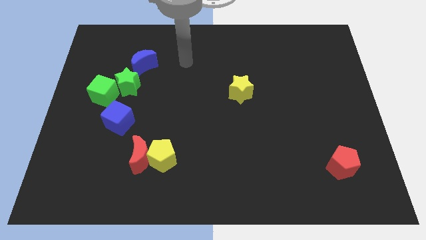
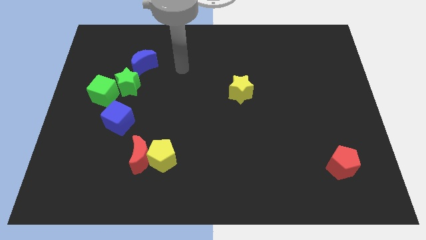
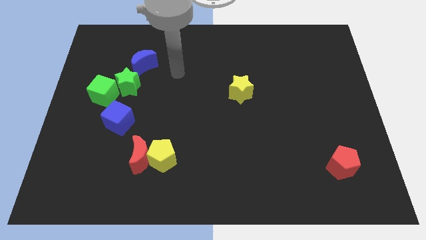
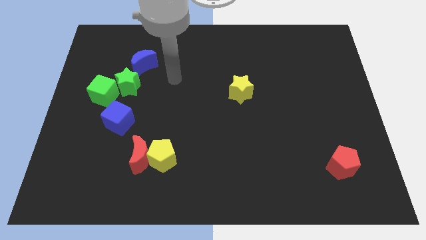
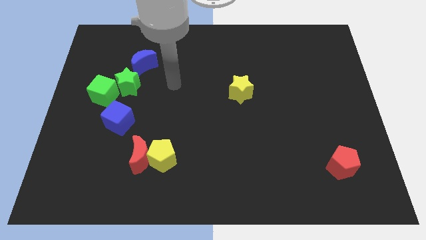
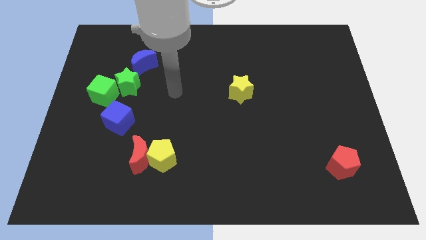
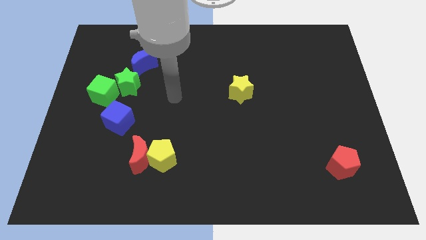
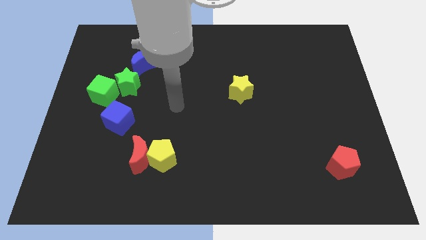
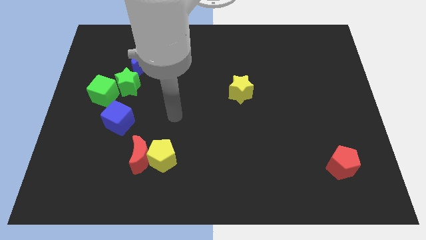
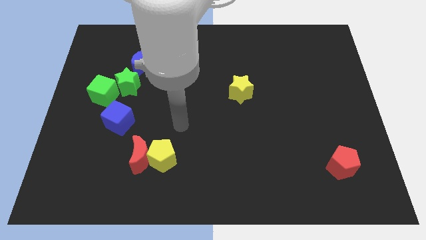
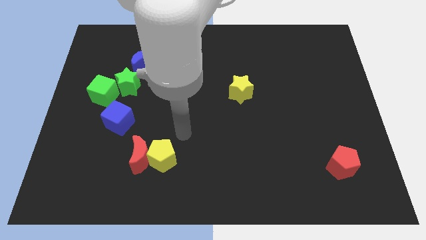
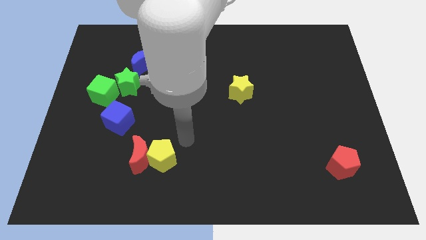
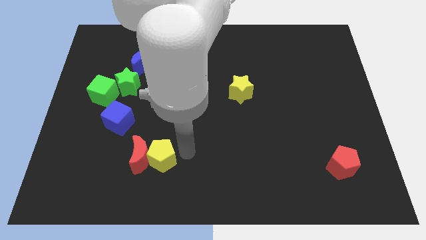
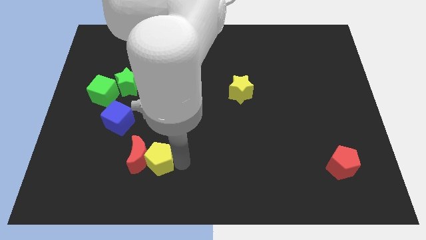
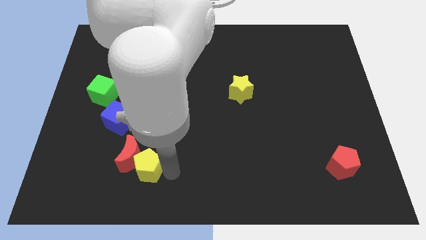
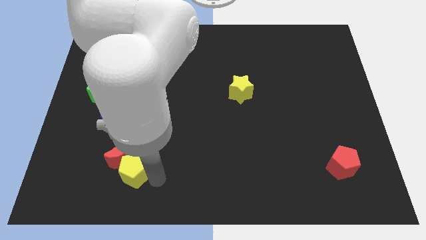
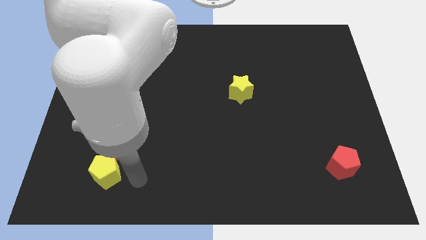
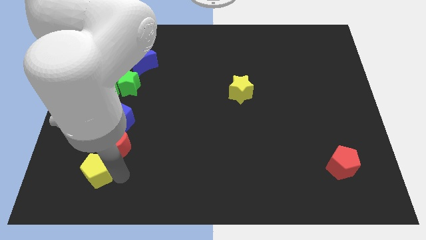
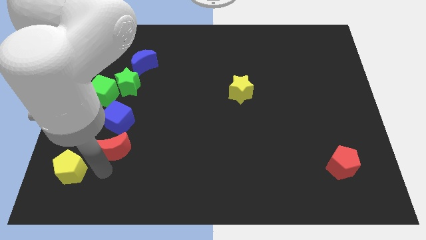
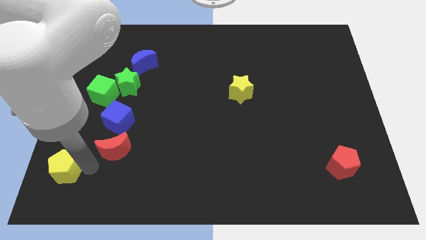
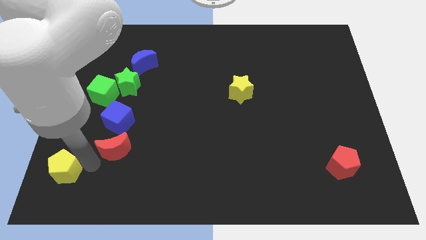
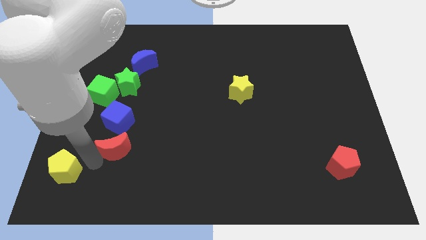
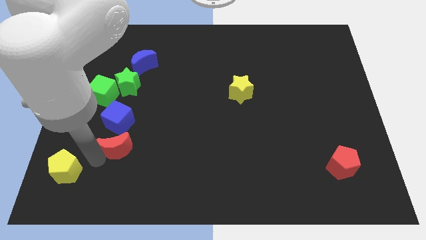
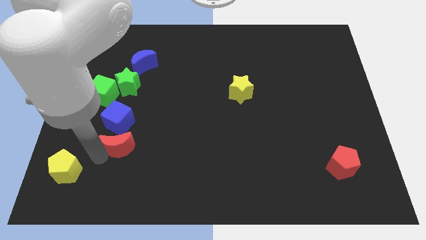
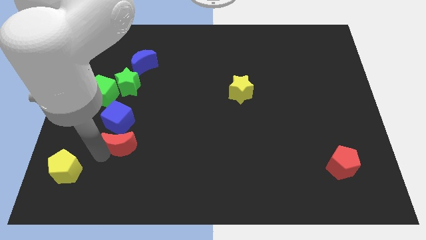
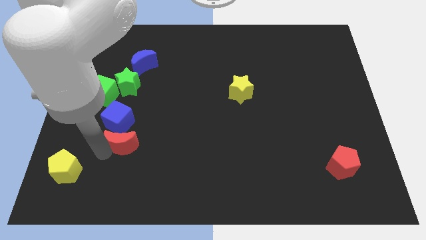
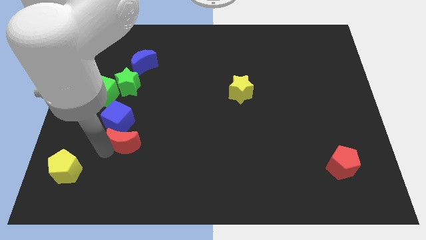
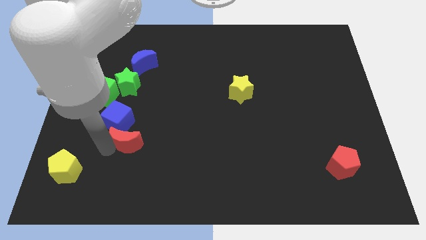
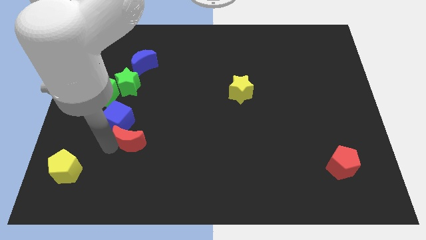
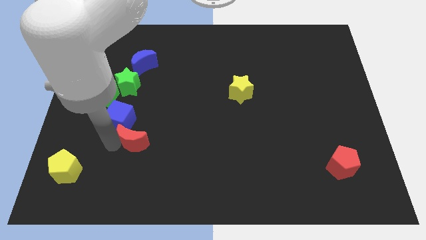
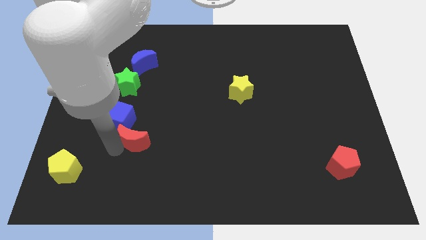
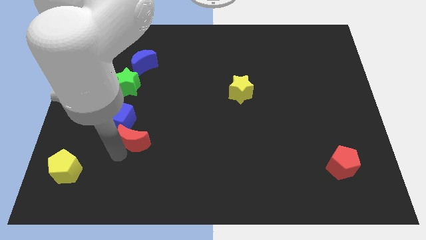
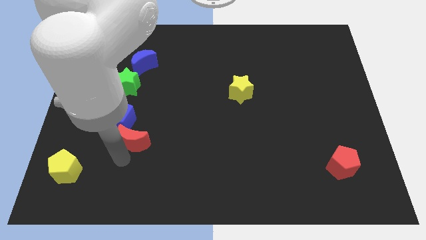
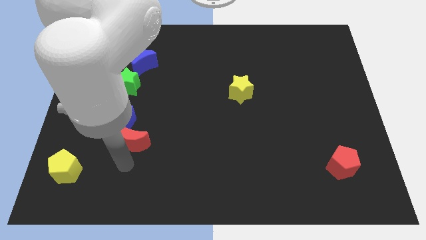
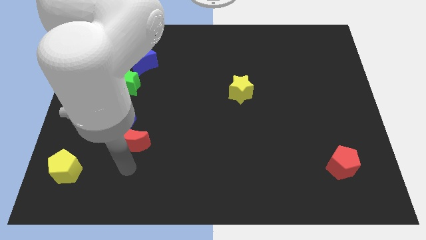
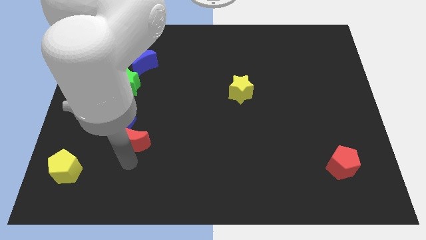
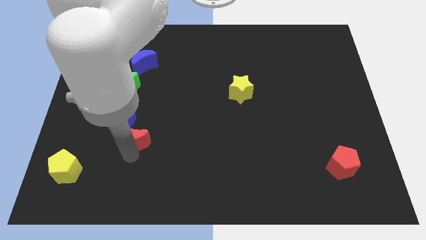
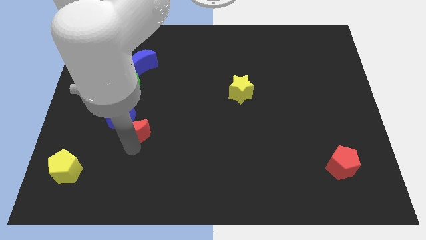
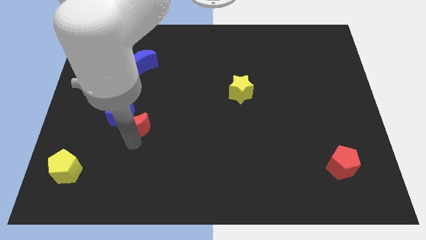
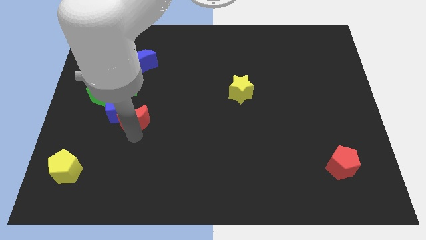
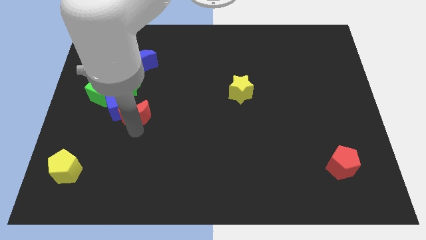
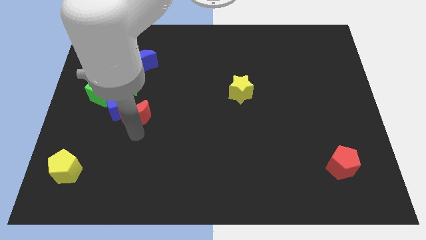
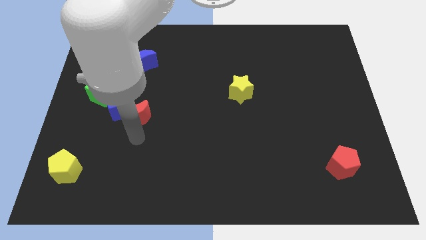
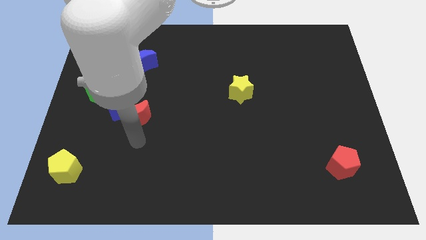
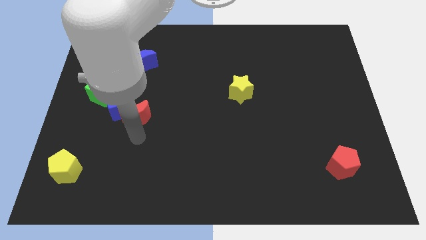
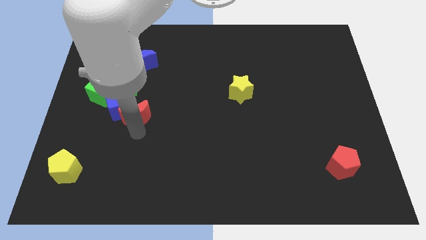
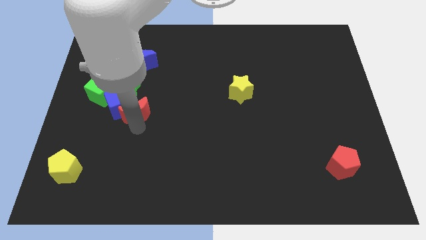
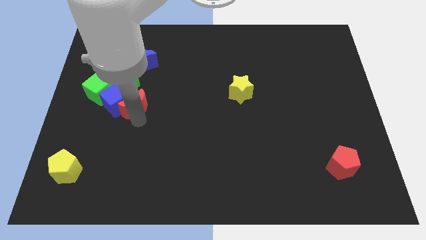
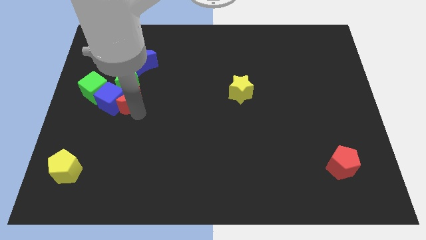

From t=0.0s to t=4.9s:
slide the red moon towards the green star

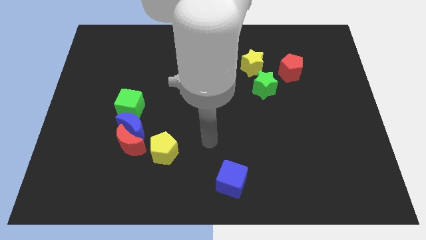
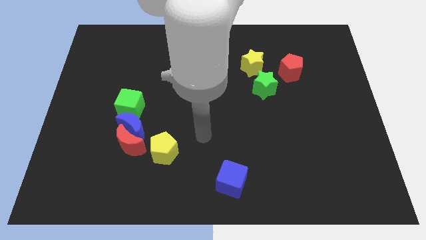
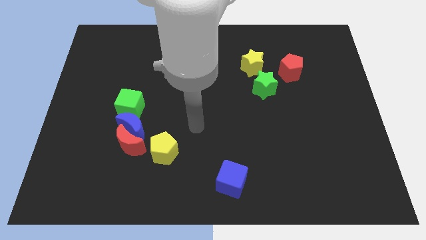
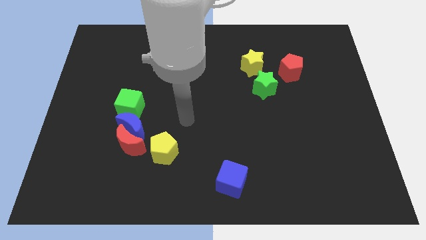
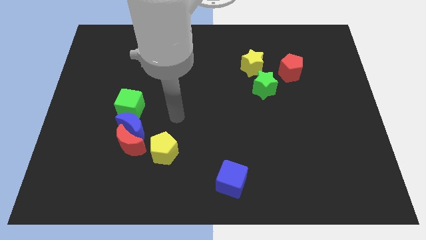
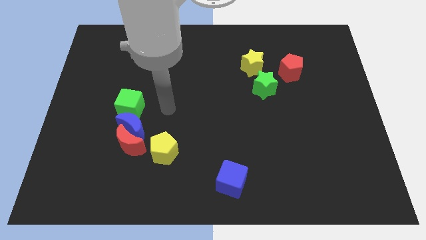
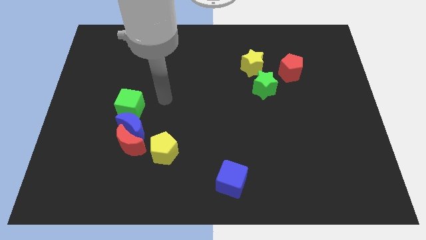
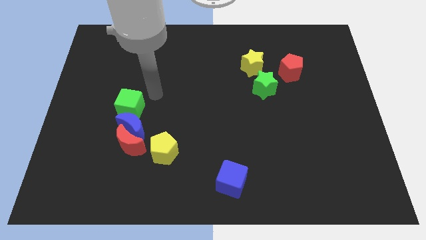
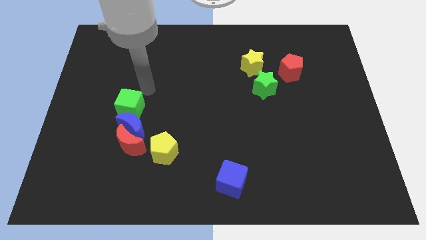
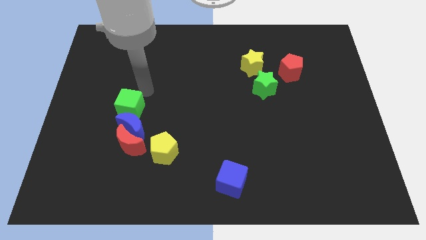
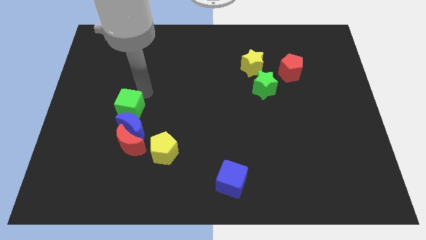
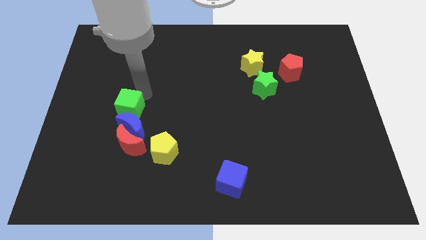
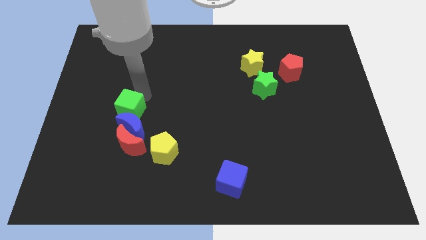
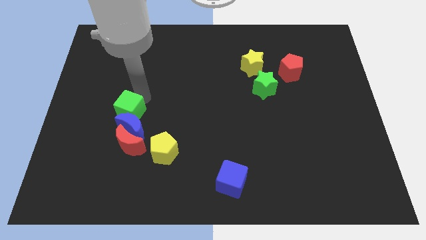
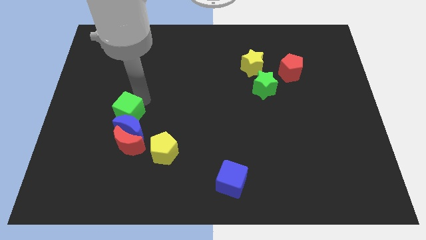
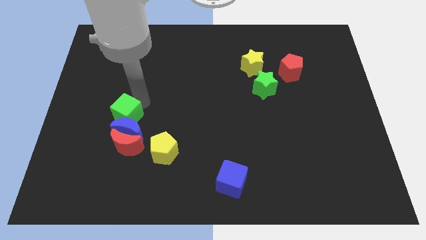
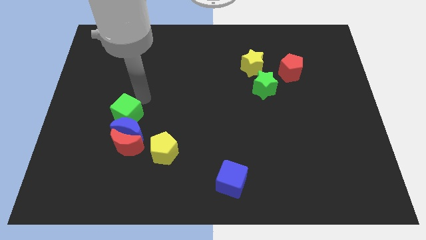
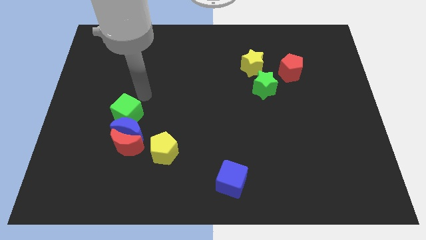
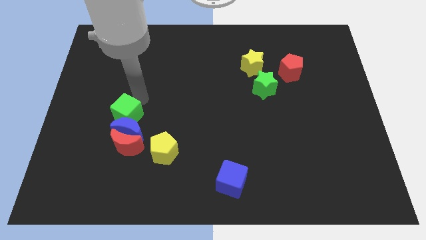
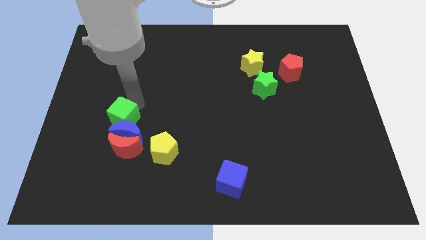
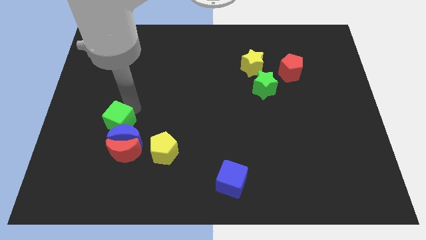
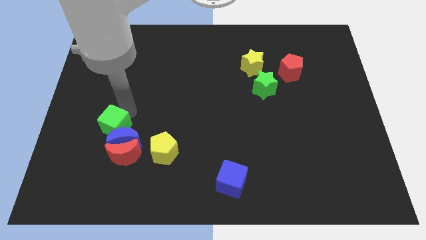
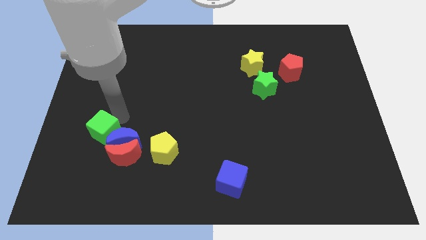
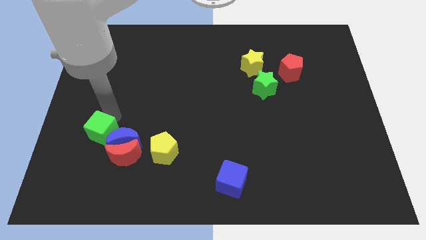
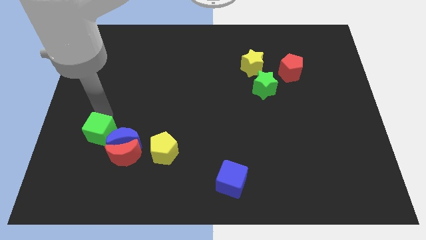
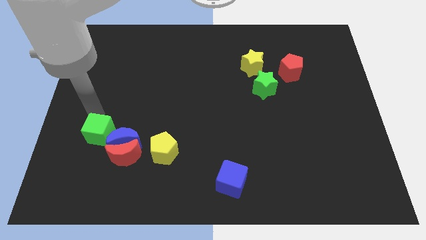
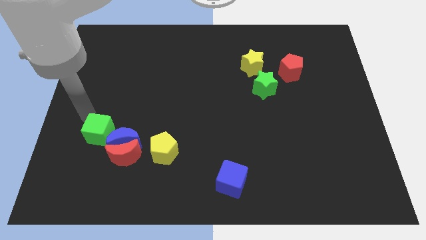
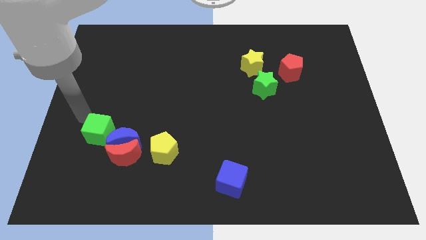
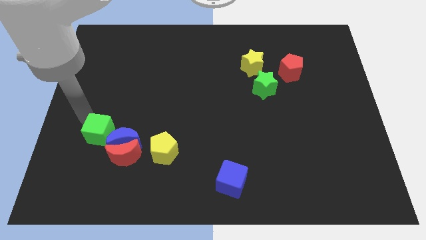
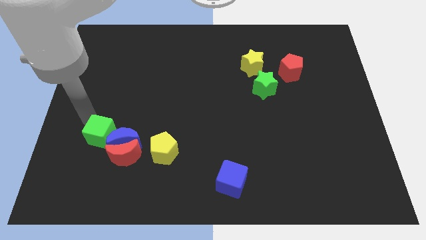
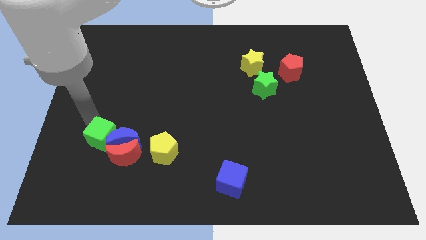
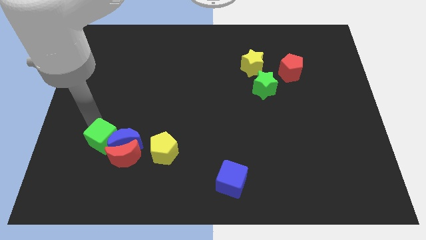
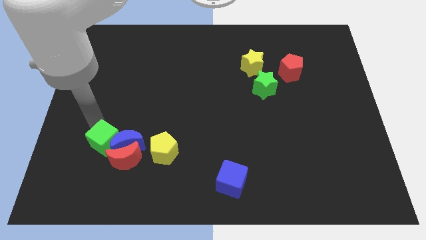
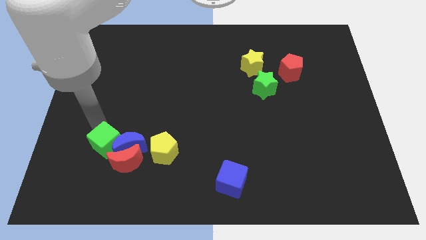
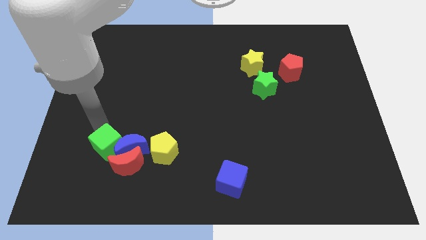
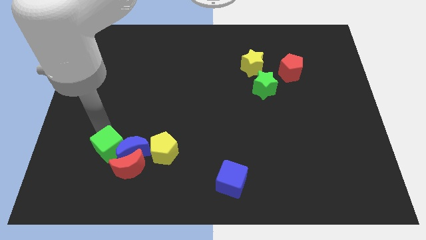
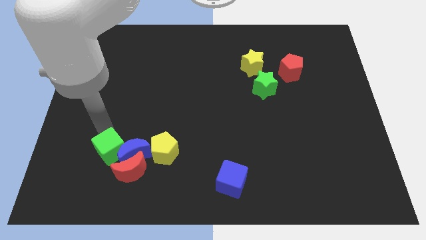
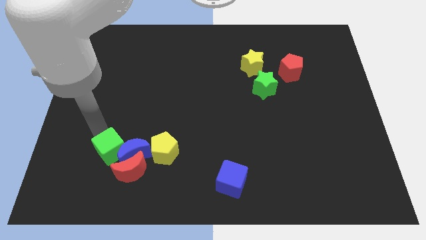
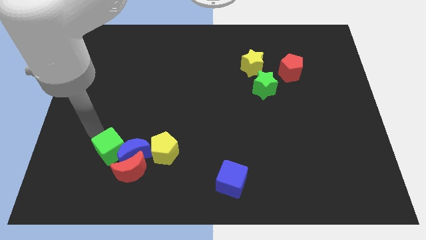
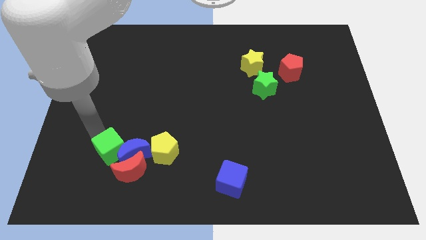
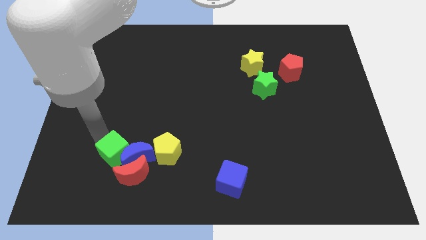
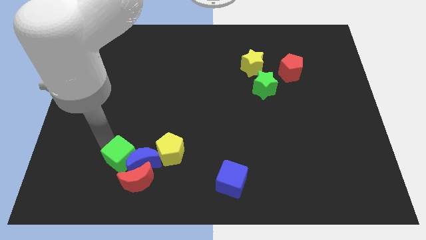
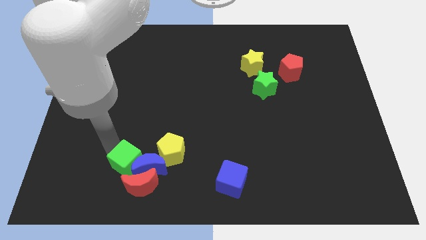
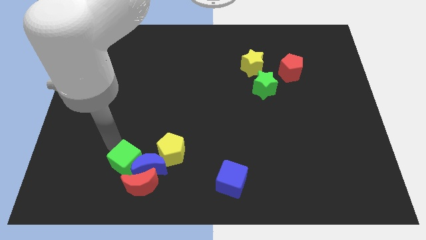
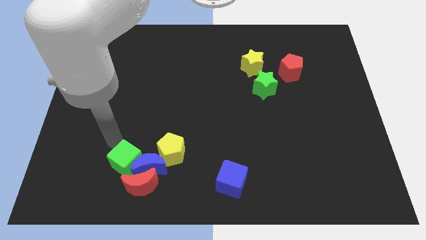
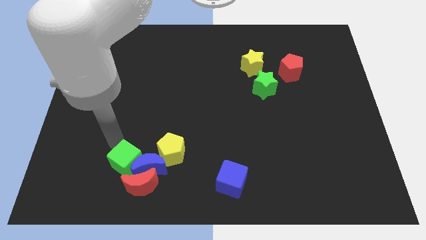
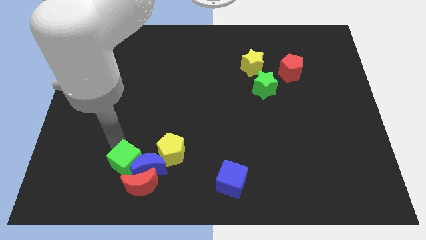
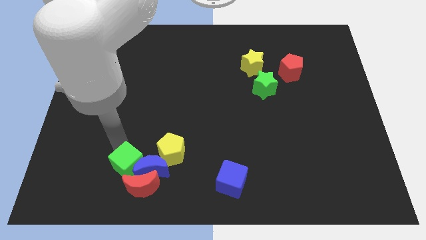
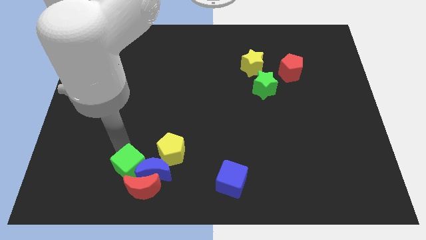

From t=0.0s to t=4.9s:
put the green cube close to the red moon
